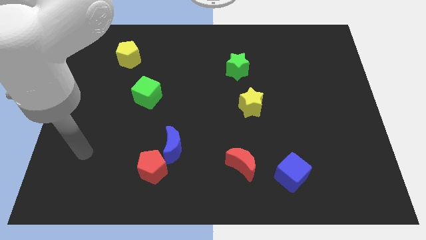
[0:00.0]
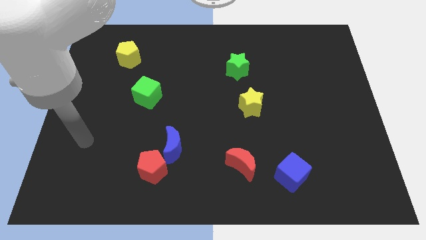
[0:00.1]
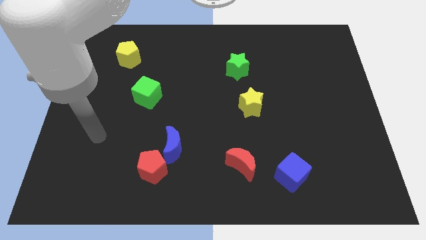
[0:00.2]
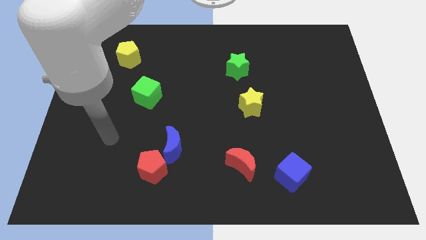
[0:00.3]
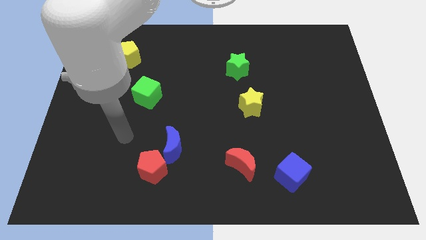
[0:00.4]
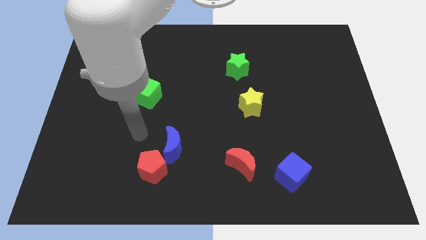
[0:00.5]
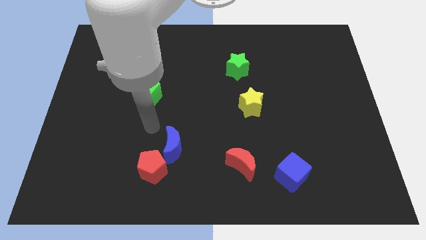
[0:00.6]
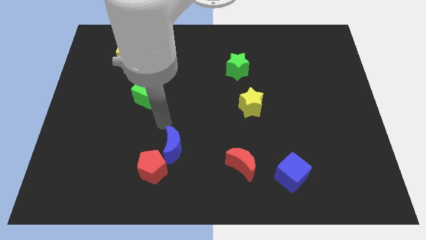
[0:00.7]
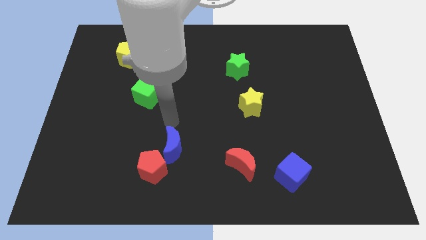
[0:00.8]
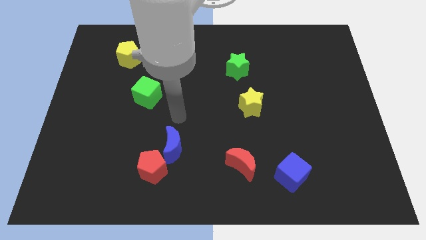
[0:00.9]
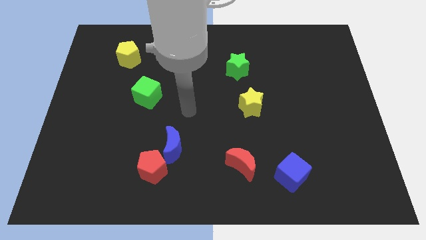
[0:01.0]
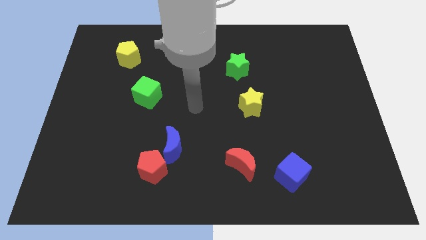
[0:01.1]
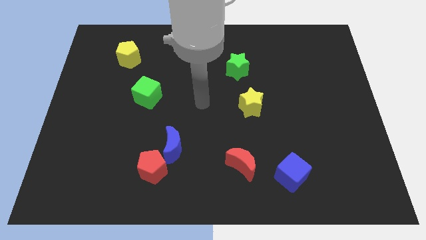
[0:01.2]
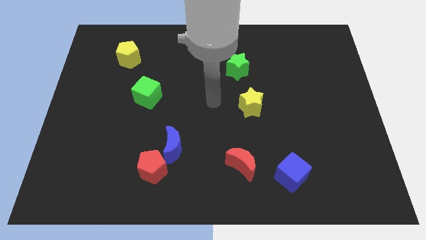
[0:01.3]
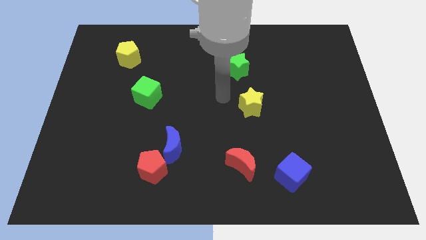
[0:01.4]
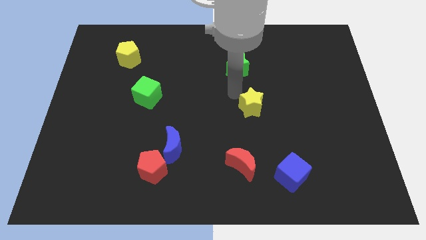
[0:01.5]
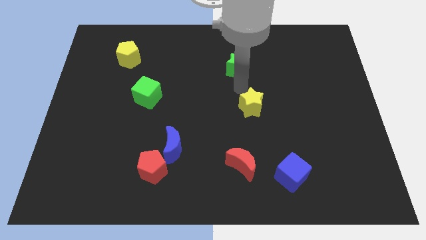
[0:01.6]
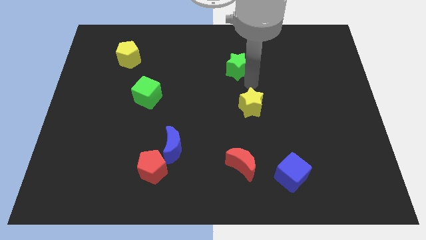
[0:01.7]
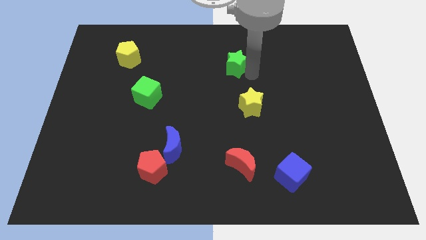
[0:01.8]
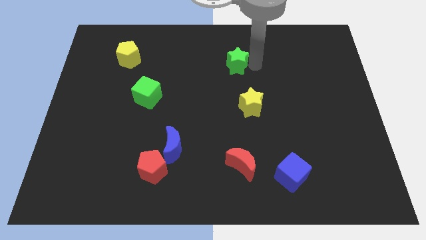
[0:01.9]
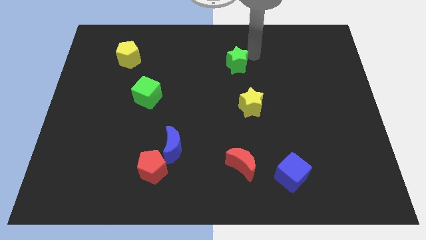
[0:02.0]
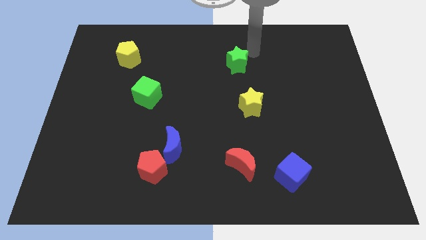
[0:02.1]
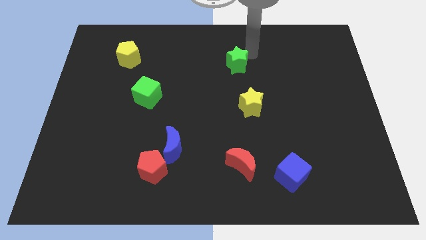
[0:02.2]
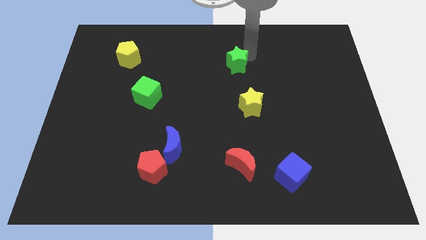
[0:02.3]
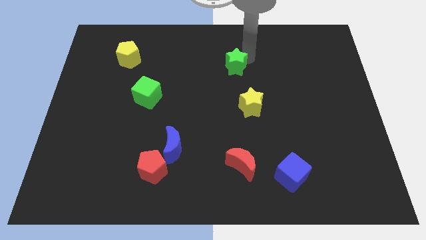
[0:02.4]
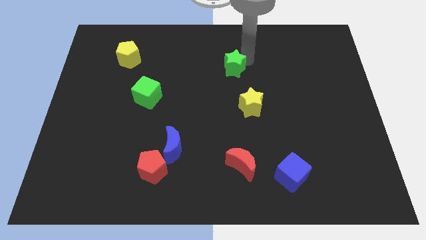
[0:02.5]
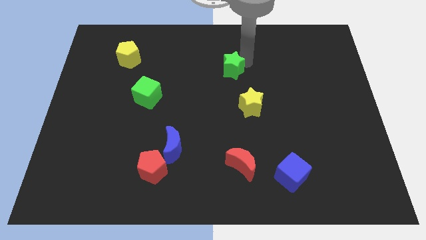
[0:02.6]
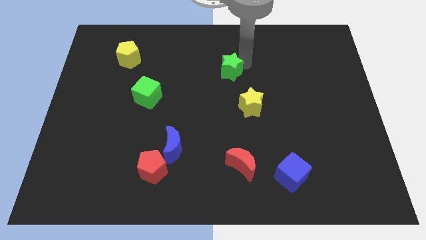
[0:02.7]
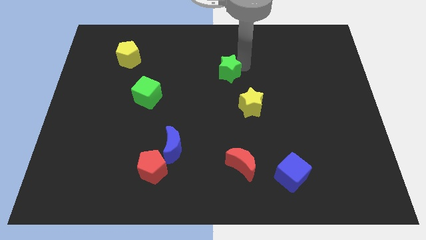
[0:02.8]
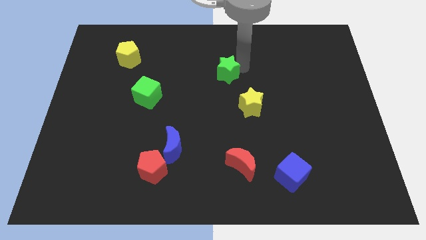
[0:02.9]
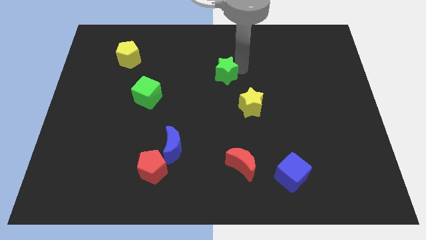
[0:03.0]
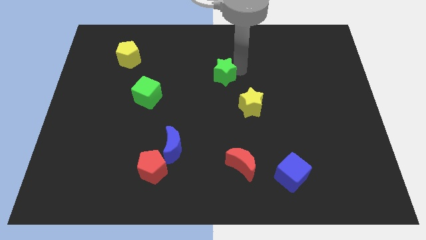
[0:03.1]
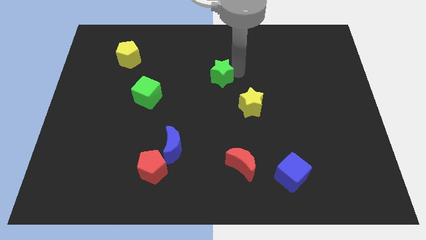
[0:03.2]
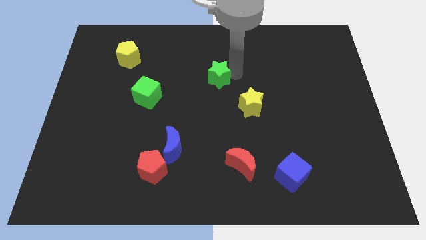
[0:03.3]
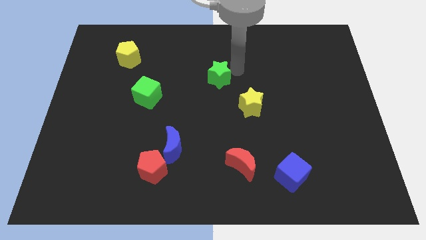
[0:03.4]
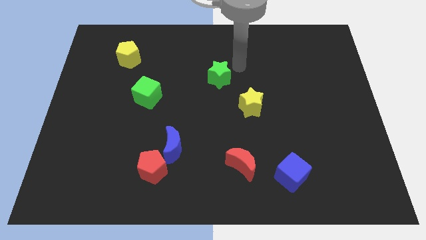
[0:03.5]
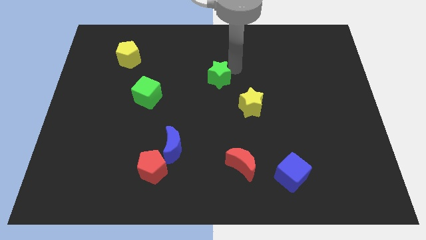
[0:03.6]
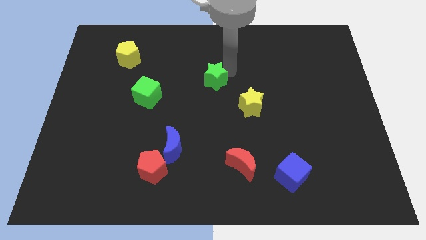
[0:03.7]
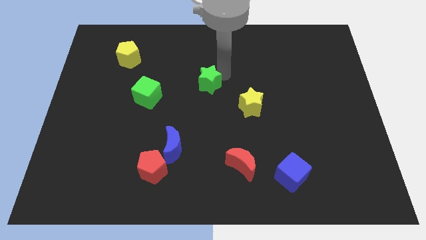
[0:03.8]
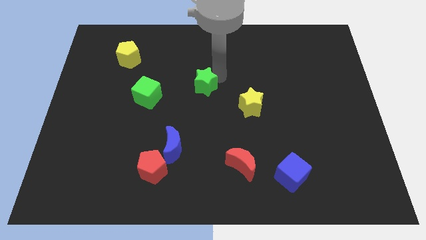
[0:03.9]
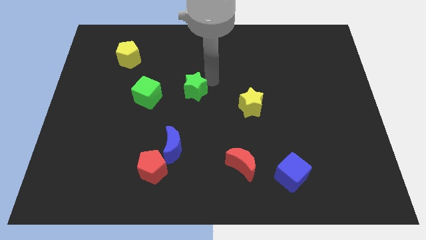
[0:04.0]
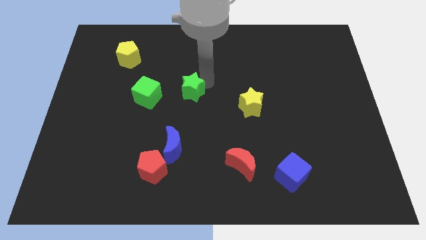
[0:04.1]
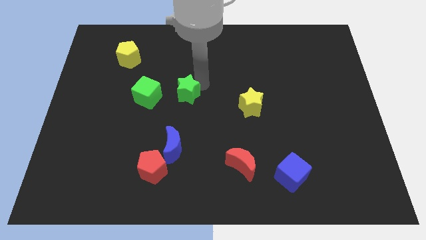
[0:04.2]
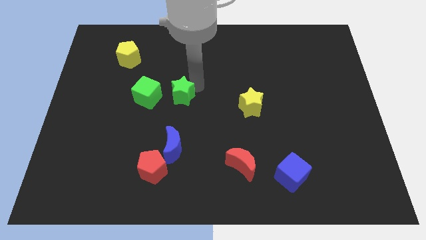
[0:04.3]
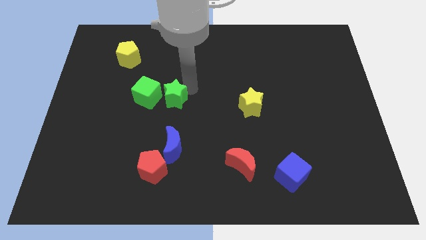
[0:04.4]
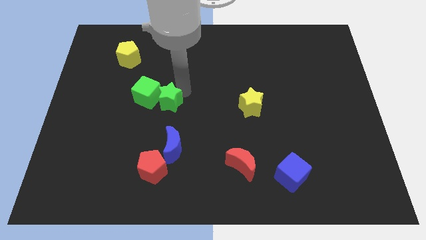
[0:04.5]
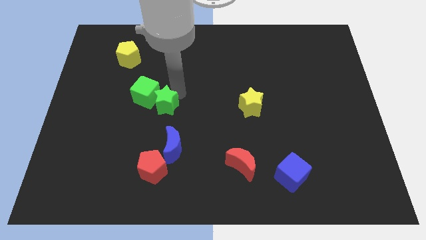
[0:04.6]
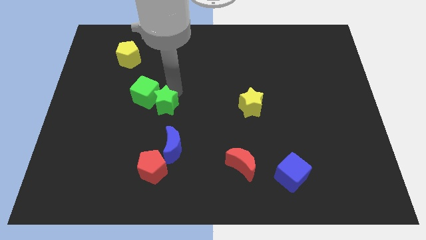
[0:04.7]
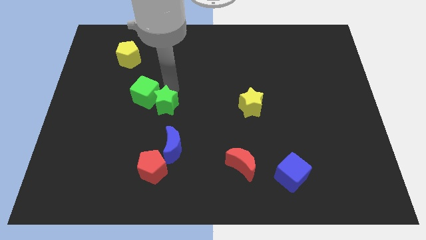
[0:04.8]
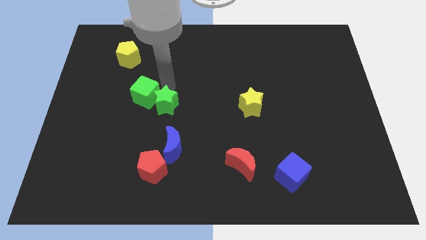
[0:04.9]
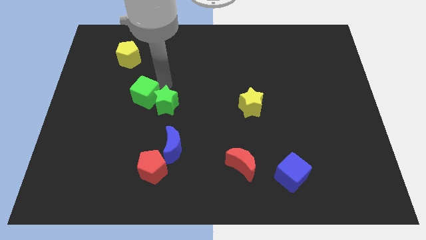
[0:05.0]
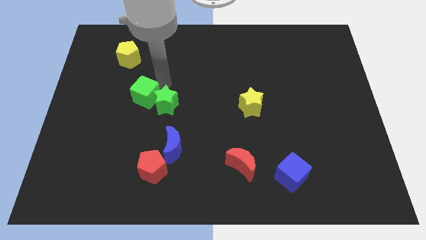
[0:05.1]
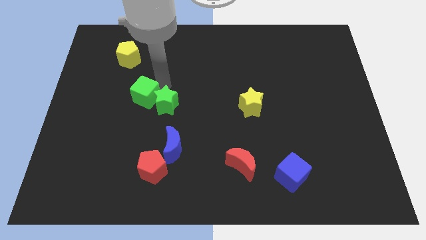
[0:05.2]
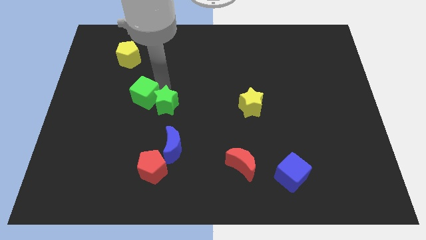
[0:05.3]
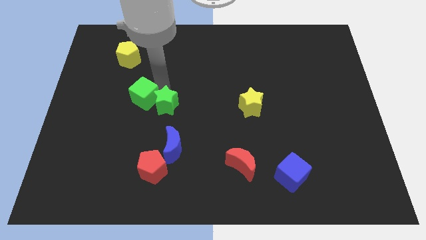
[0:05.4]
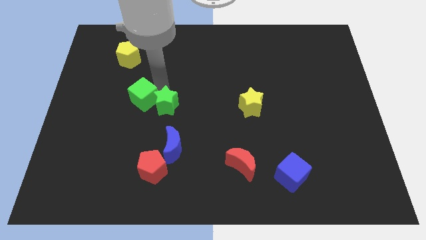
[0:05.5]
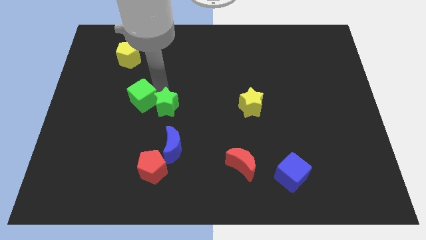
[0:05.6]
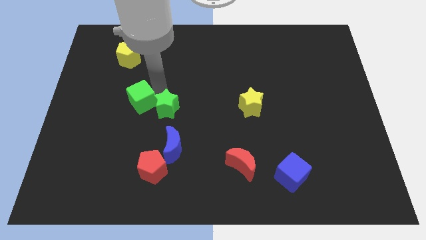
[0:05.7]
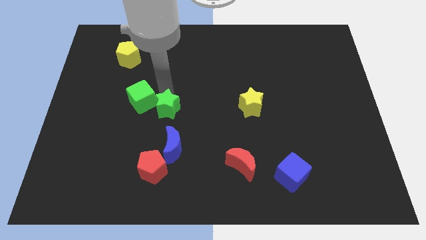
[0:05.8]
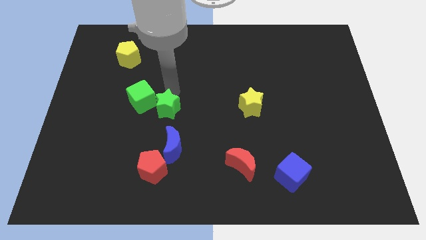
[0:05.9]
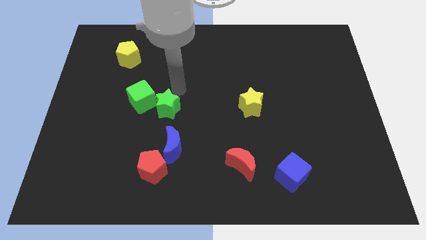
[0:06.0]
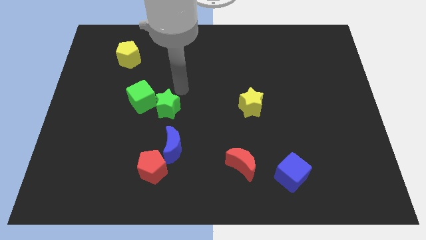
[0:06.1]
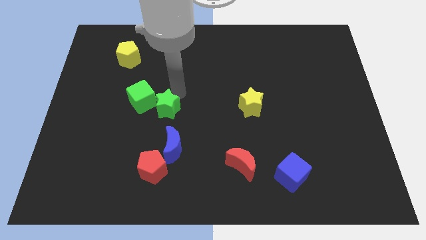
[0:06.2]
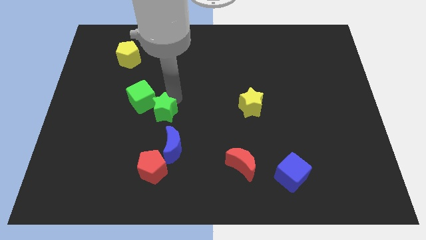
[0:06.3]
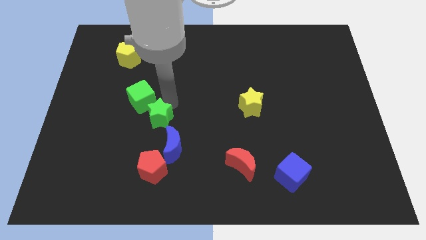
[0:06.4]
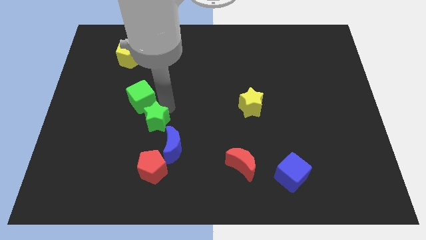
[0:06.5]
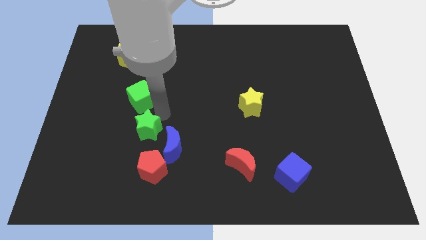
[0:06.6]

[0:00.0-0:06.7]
push the green star left of the blue moon

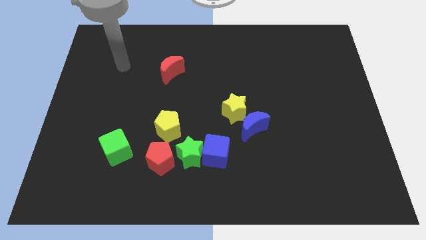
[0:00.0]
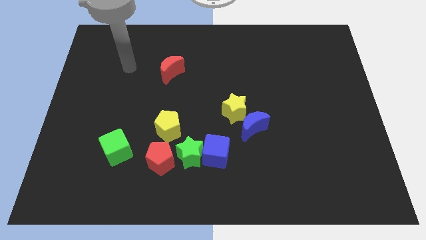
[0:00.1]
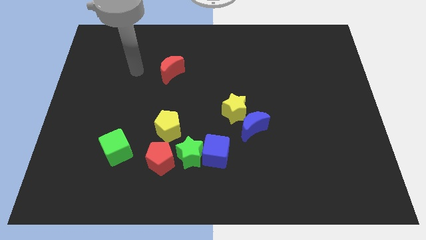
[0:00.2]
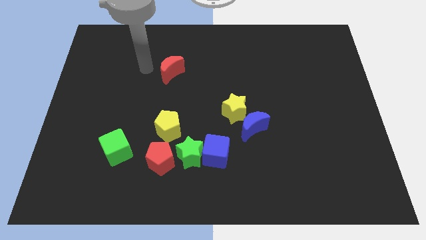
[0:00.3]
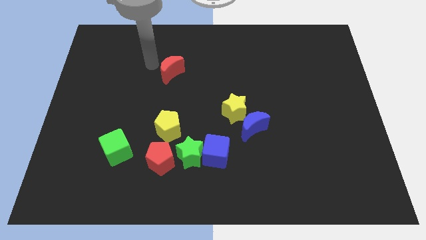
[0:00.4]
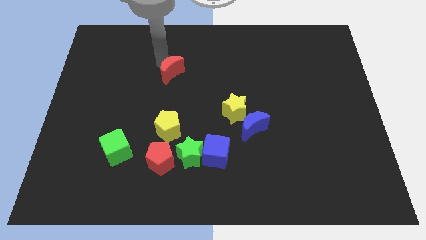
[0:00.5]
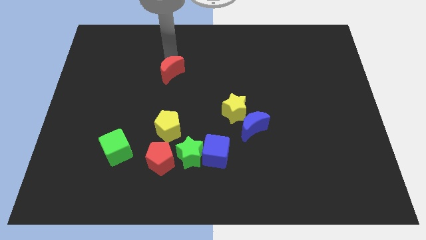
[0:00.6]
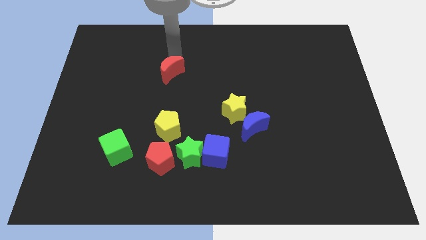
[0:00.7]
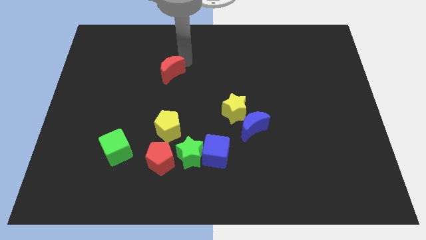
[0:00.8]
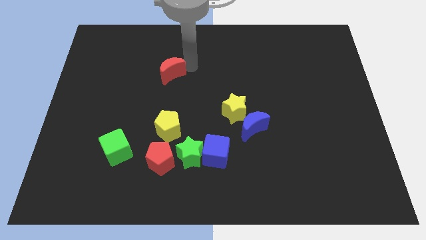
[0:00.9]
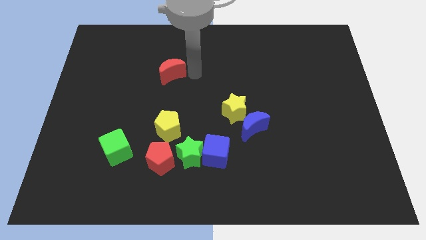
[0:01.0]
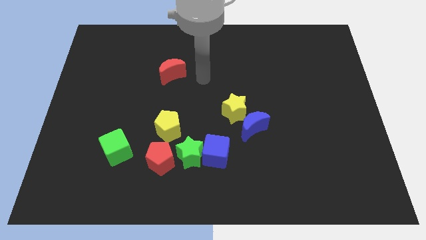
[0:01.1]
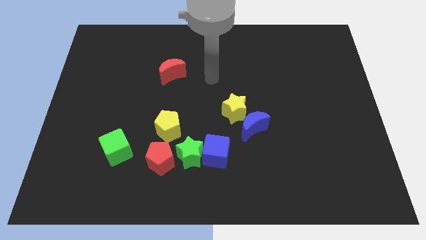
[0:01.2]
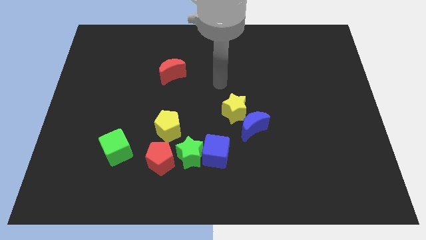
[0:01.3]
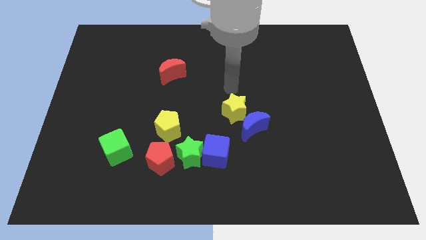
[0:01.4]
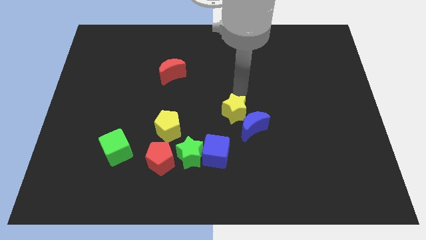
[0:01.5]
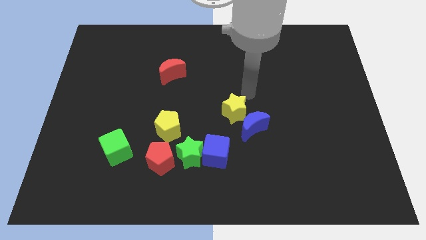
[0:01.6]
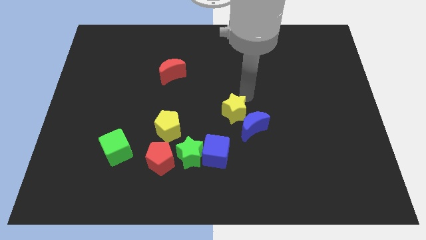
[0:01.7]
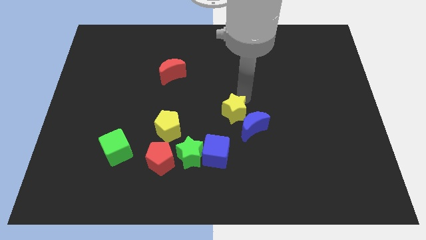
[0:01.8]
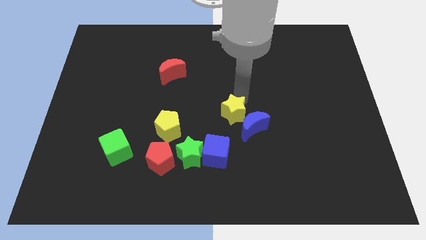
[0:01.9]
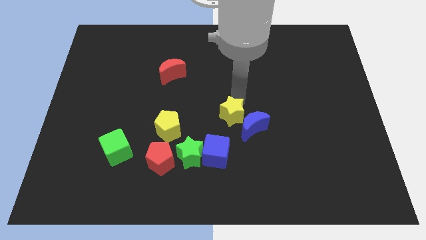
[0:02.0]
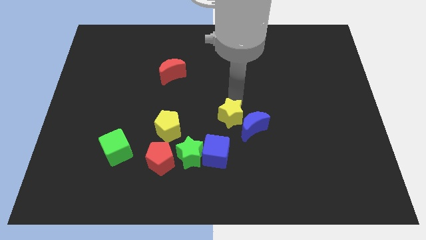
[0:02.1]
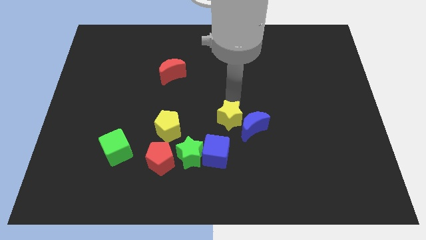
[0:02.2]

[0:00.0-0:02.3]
push the yellow star diagonally up and to the right of the green star
